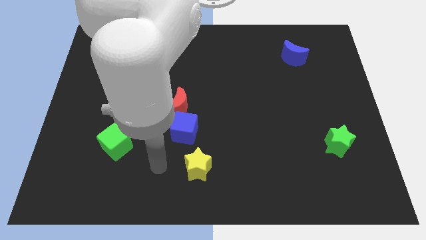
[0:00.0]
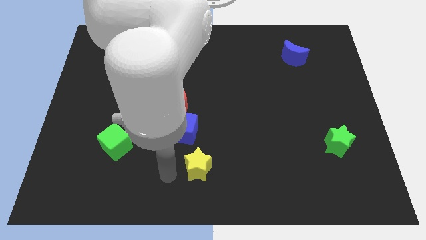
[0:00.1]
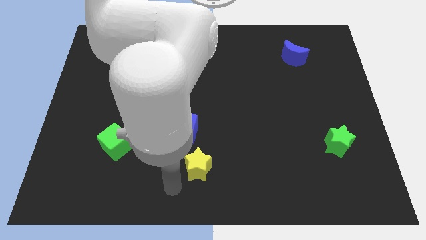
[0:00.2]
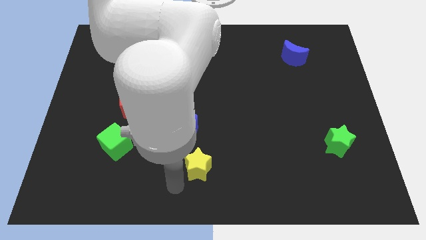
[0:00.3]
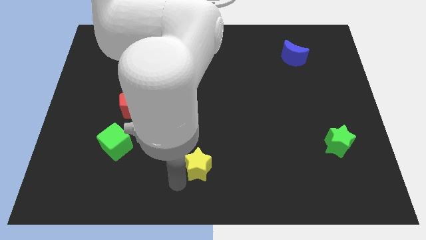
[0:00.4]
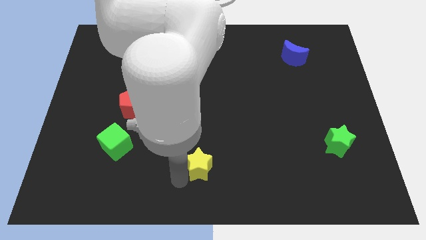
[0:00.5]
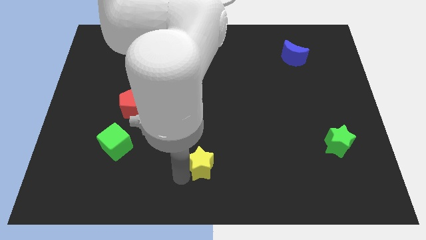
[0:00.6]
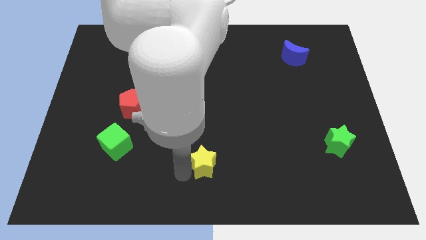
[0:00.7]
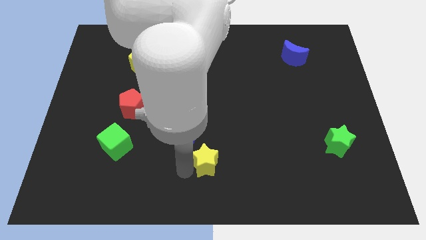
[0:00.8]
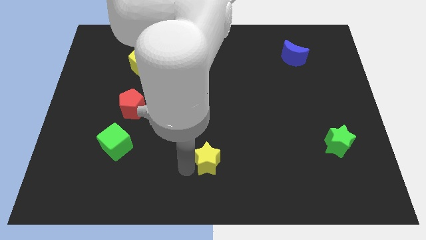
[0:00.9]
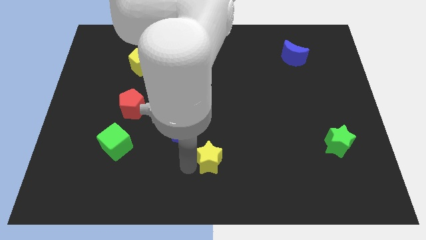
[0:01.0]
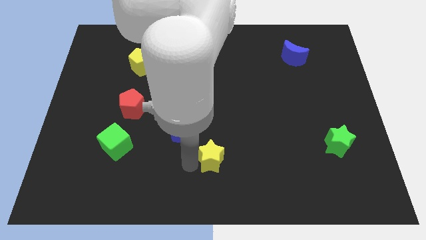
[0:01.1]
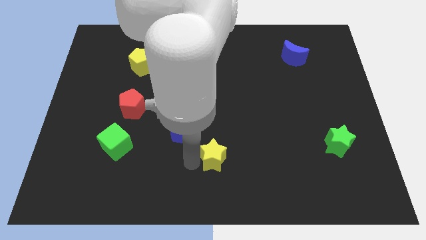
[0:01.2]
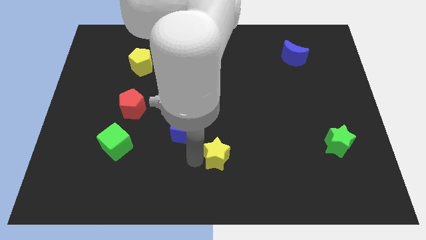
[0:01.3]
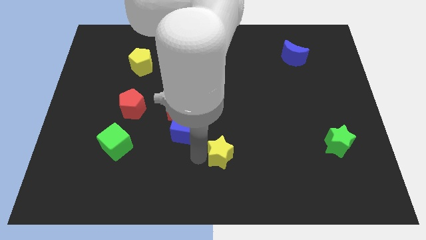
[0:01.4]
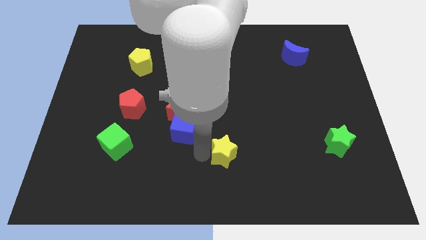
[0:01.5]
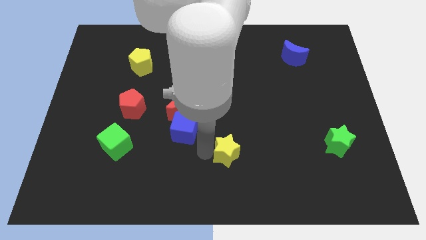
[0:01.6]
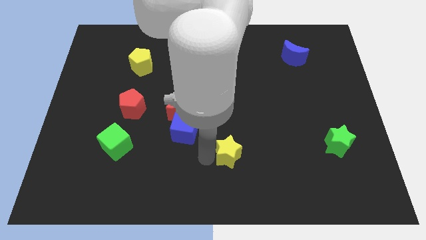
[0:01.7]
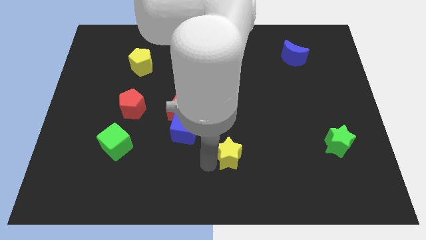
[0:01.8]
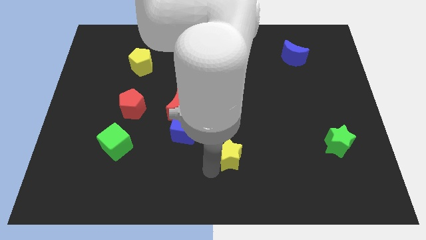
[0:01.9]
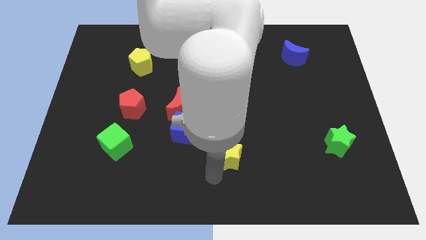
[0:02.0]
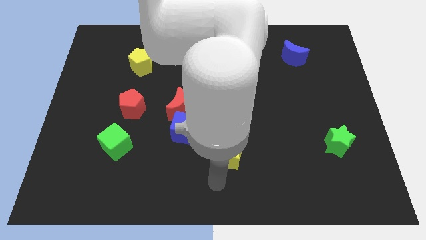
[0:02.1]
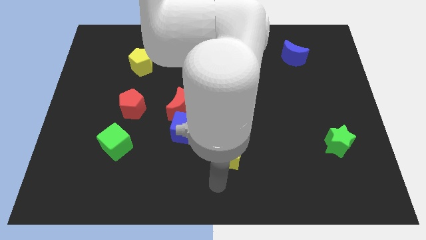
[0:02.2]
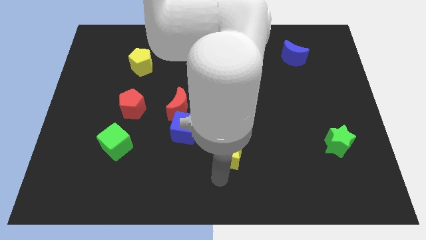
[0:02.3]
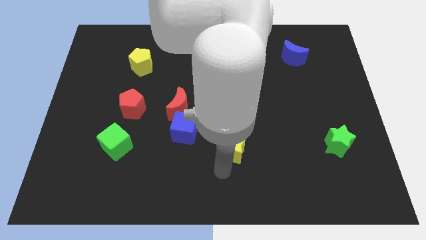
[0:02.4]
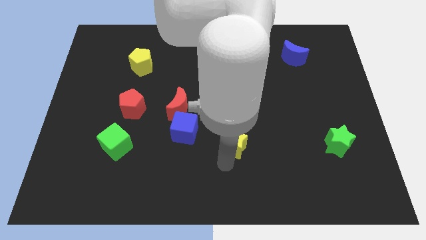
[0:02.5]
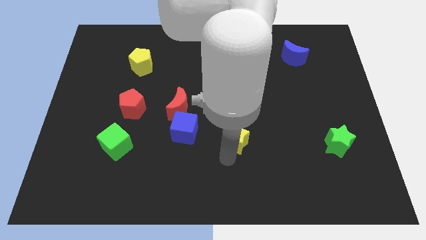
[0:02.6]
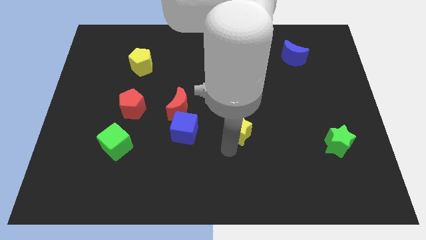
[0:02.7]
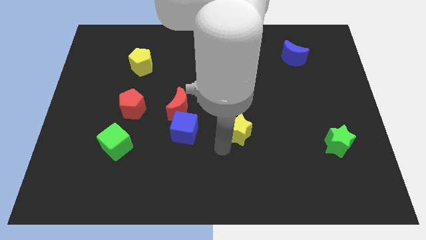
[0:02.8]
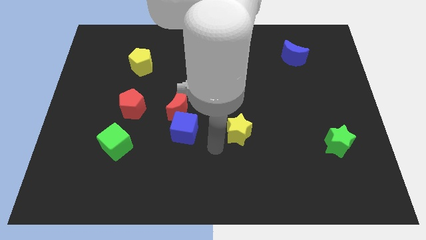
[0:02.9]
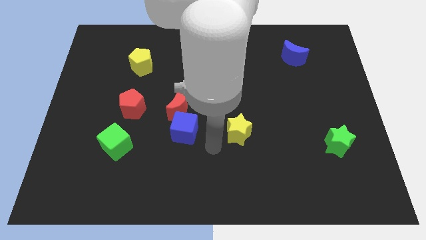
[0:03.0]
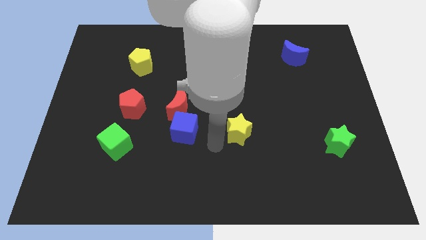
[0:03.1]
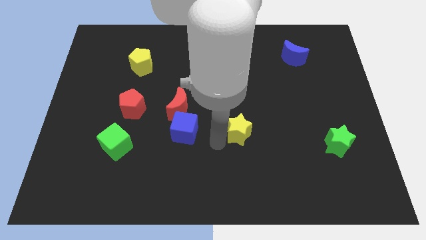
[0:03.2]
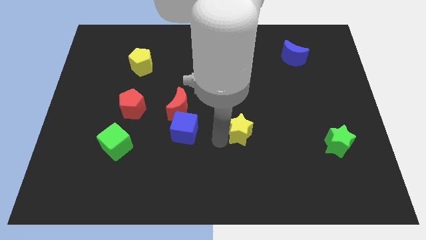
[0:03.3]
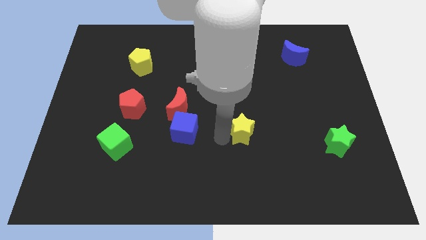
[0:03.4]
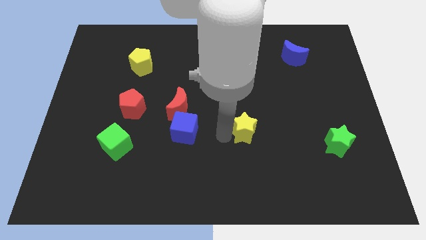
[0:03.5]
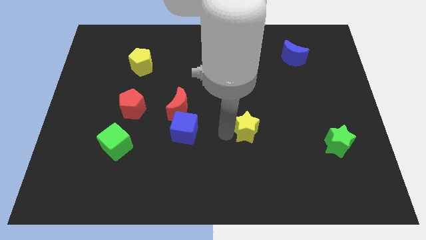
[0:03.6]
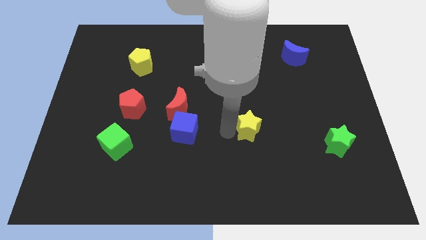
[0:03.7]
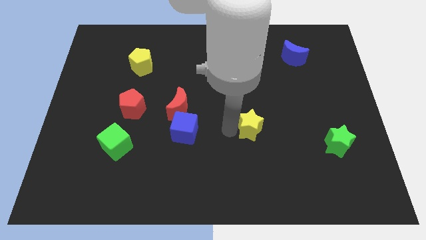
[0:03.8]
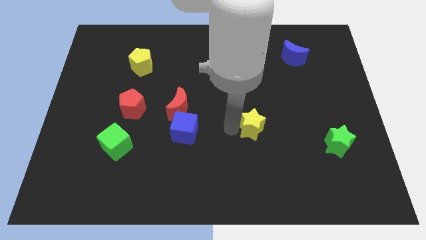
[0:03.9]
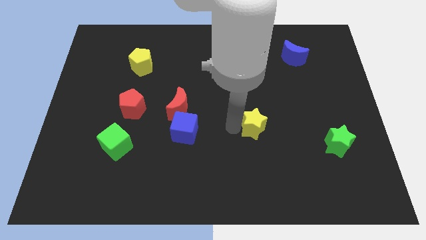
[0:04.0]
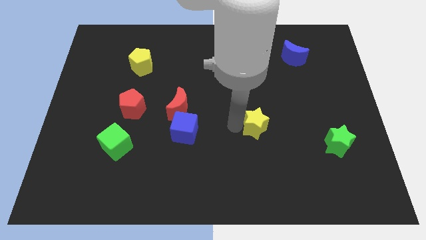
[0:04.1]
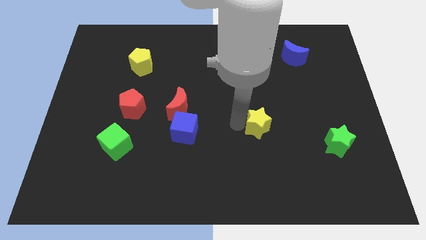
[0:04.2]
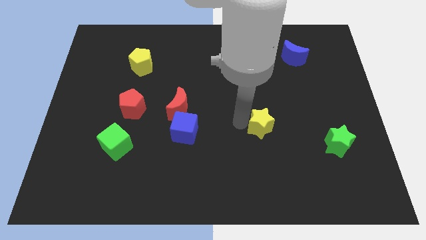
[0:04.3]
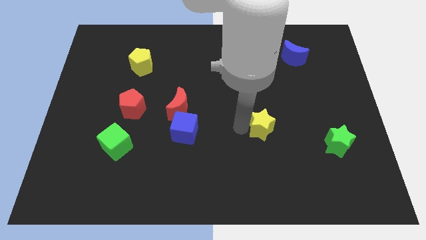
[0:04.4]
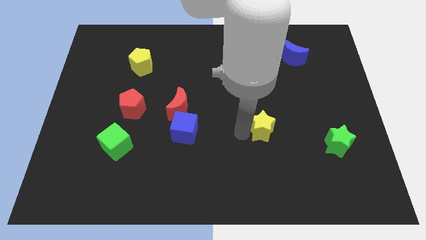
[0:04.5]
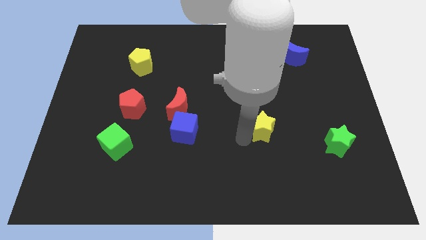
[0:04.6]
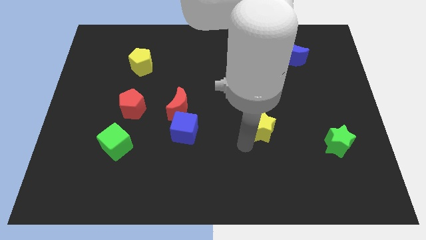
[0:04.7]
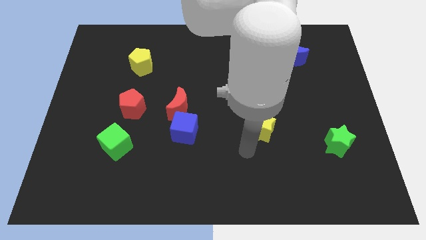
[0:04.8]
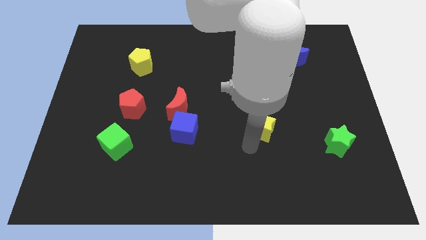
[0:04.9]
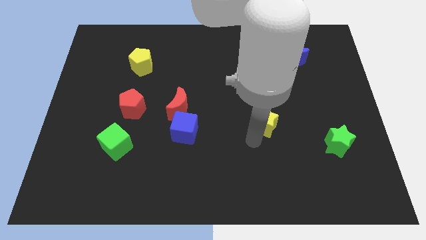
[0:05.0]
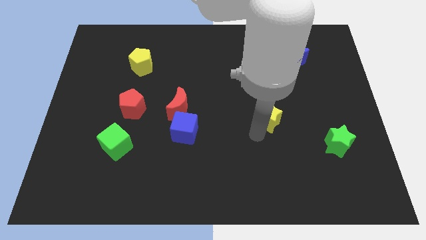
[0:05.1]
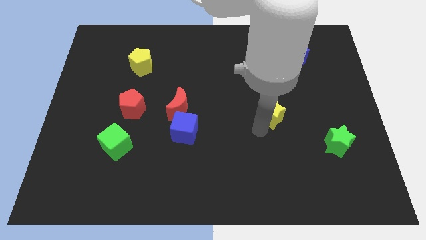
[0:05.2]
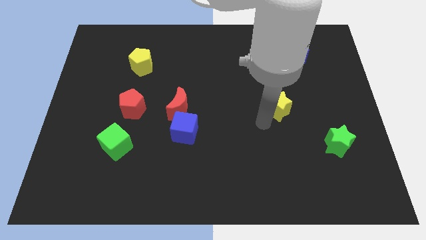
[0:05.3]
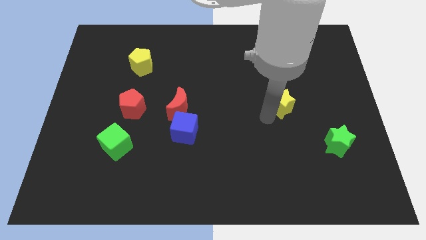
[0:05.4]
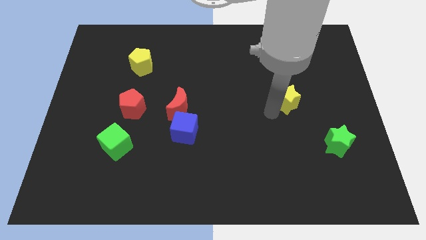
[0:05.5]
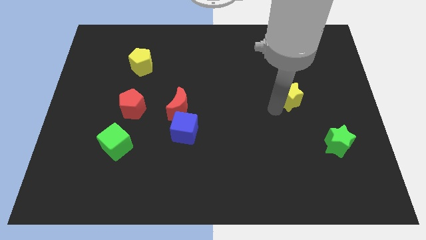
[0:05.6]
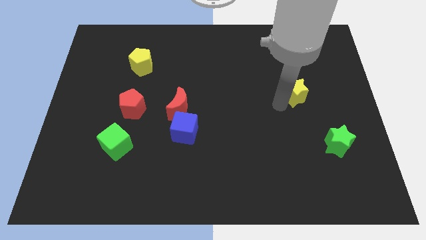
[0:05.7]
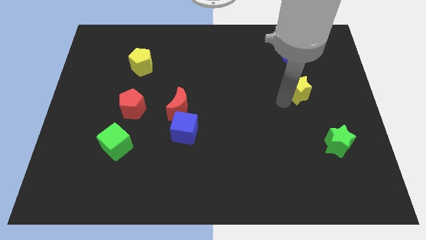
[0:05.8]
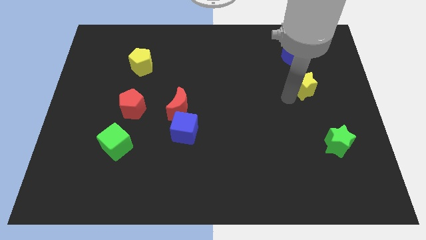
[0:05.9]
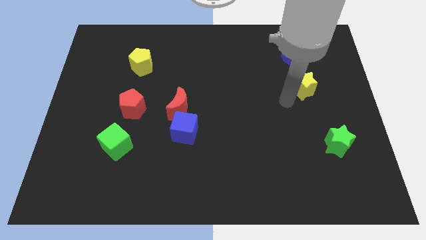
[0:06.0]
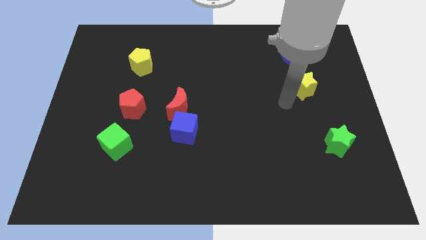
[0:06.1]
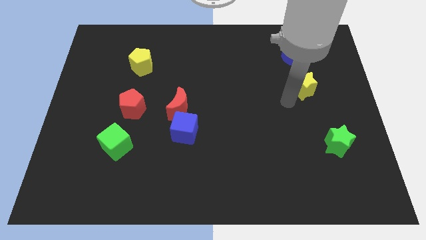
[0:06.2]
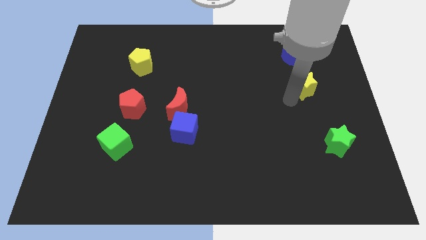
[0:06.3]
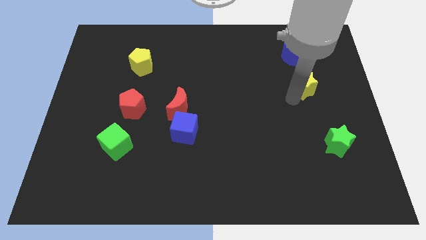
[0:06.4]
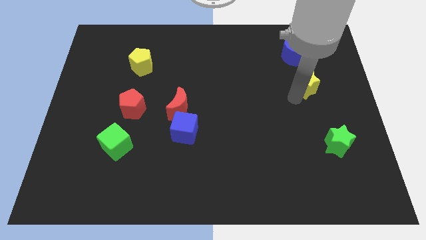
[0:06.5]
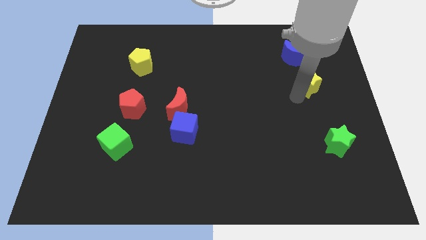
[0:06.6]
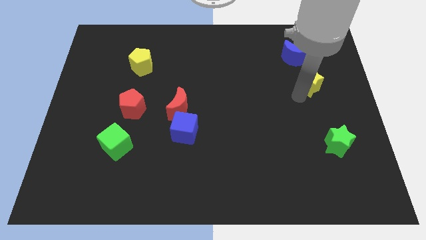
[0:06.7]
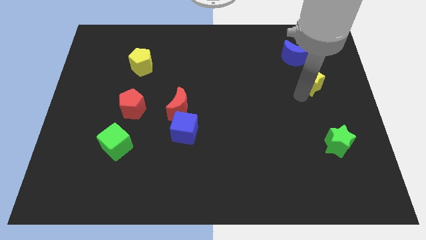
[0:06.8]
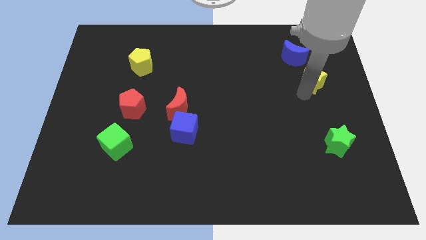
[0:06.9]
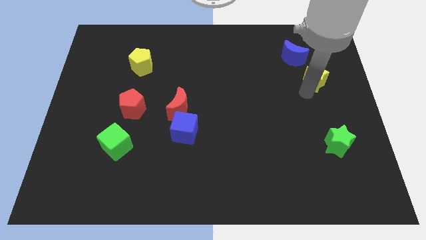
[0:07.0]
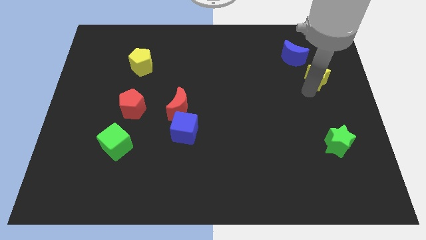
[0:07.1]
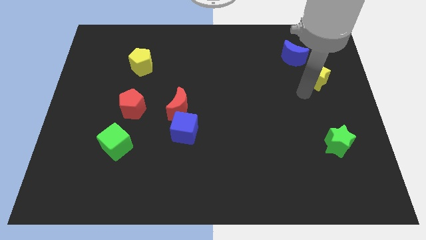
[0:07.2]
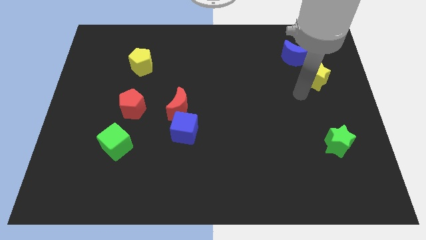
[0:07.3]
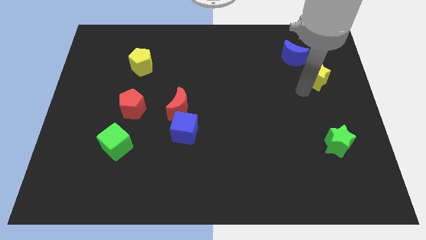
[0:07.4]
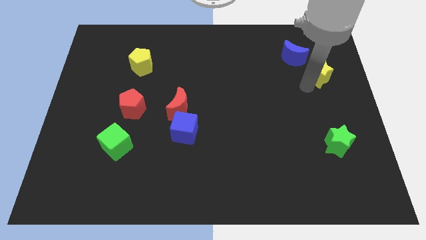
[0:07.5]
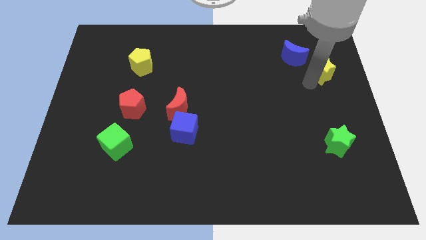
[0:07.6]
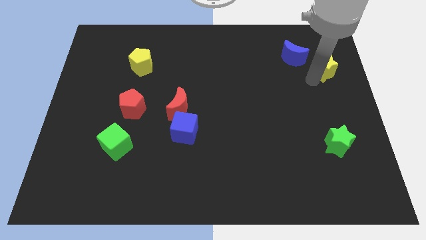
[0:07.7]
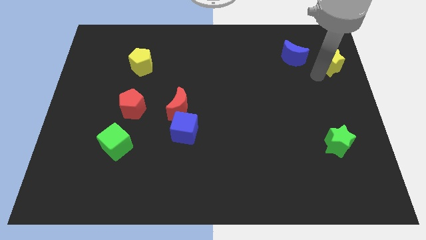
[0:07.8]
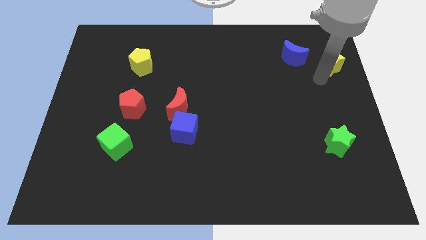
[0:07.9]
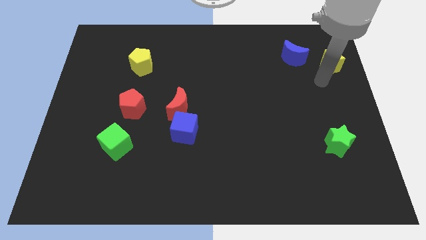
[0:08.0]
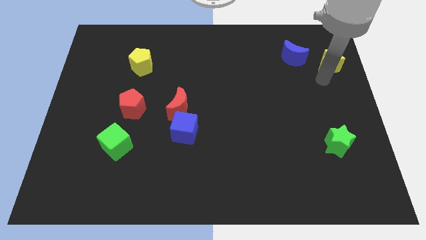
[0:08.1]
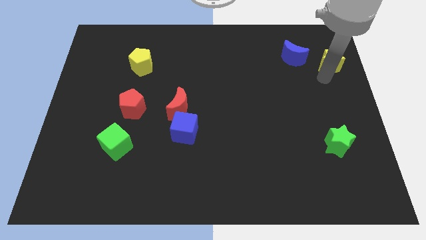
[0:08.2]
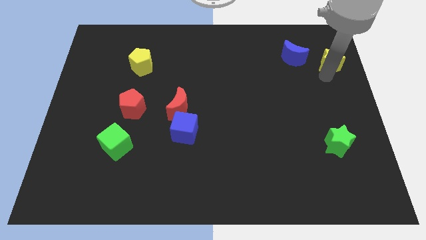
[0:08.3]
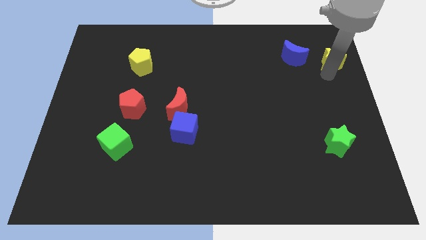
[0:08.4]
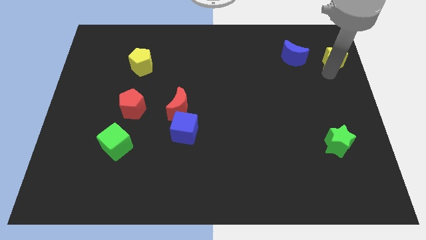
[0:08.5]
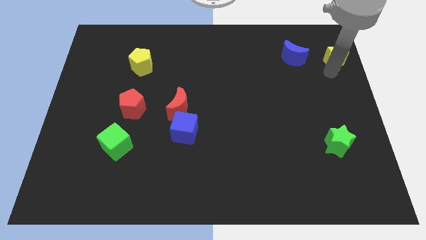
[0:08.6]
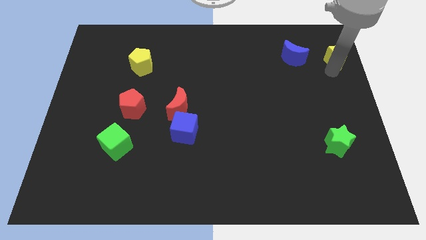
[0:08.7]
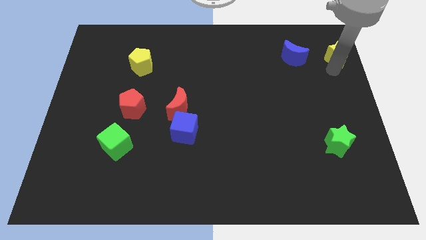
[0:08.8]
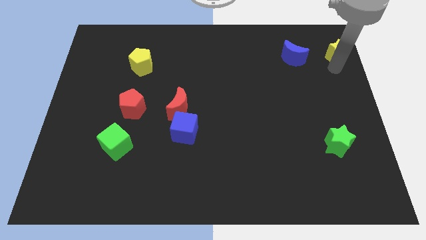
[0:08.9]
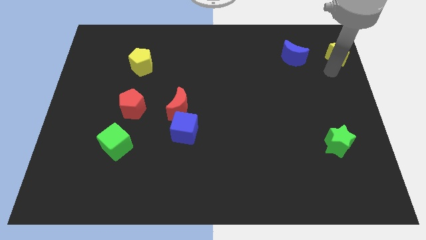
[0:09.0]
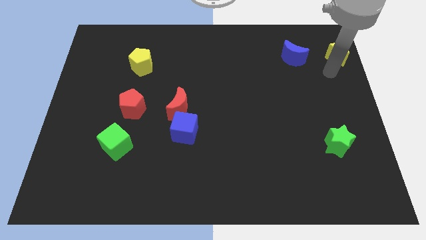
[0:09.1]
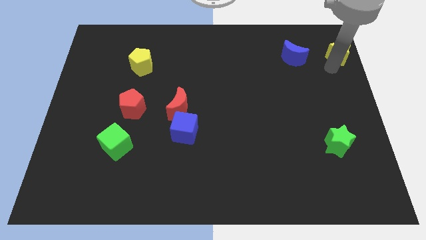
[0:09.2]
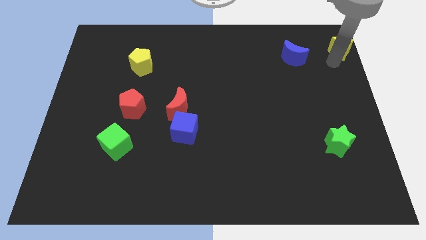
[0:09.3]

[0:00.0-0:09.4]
put the yellow star to the top right of the board
